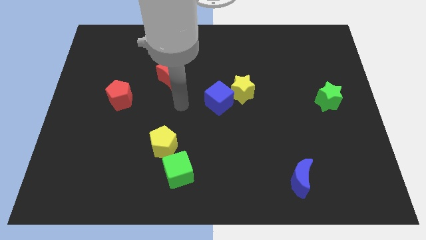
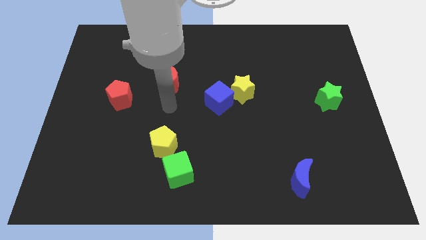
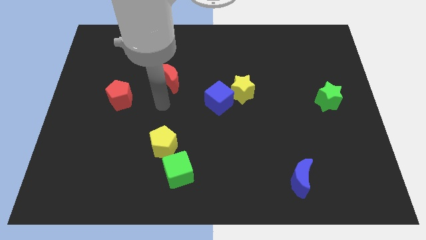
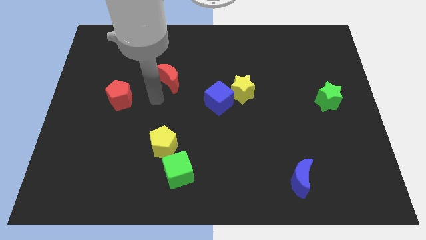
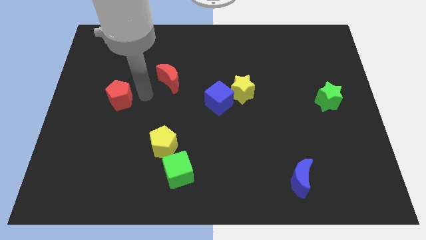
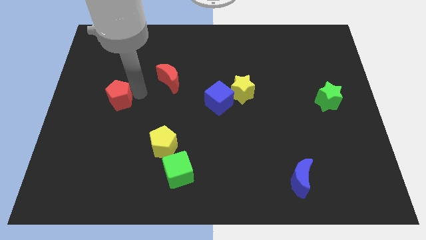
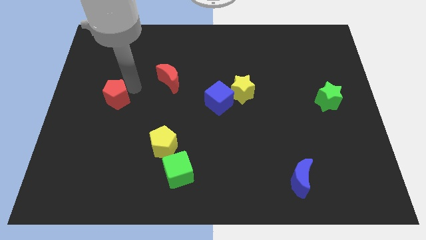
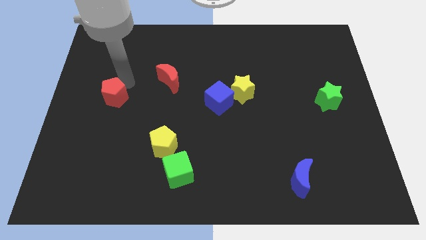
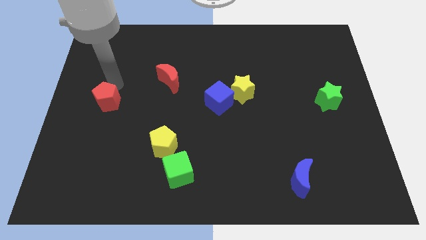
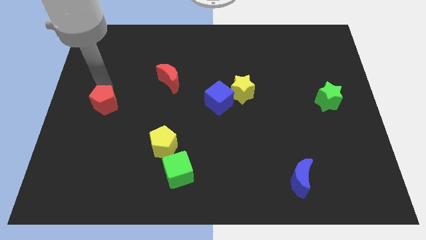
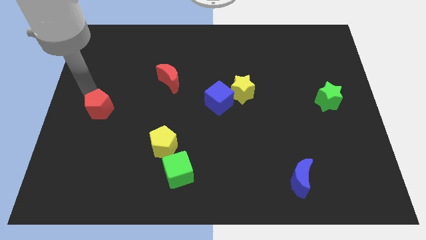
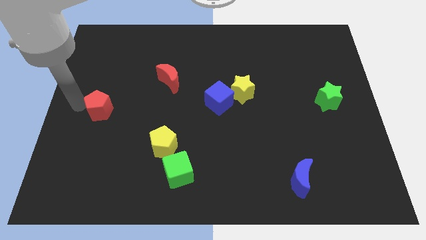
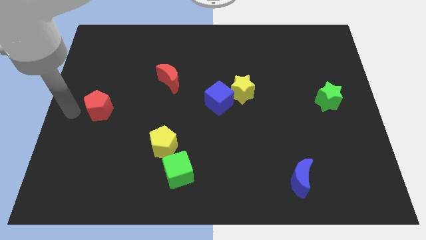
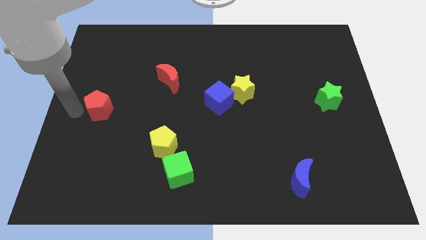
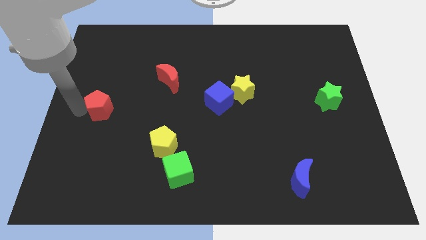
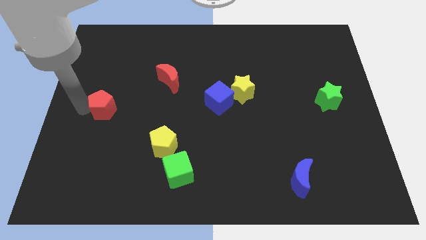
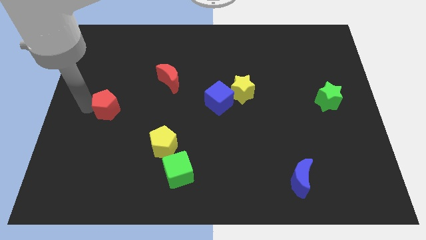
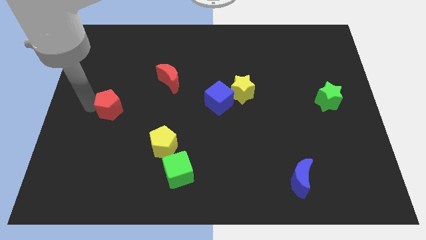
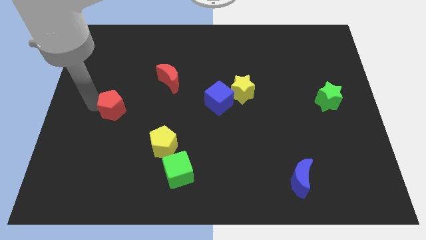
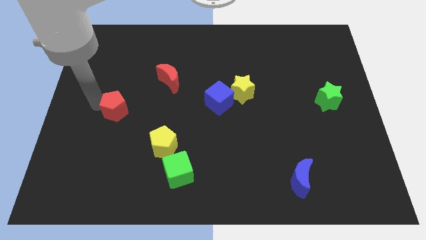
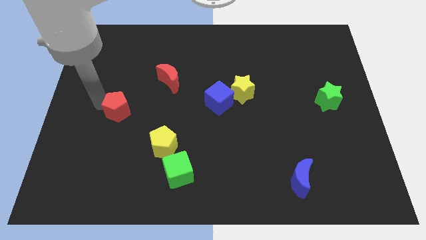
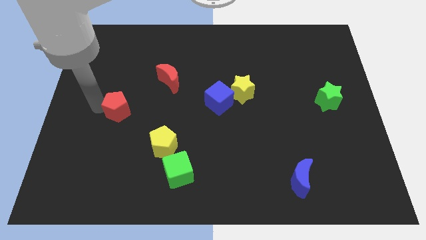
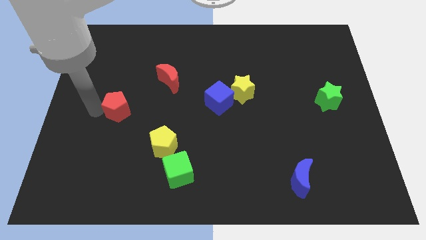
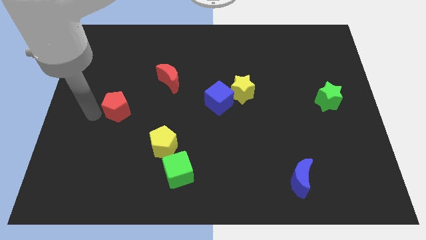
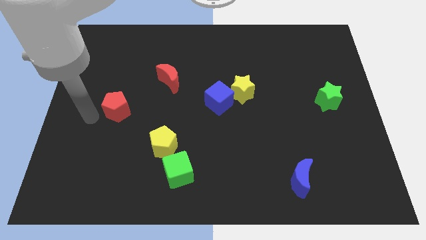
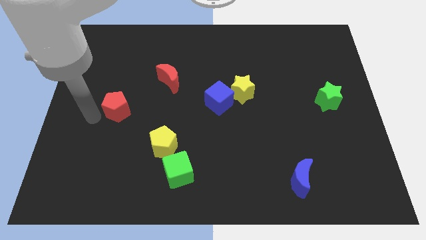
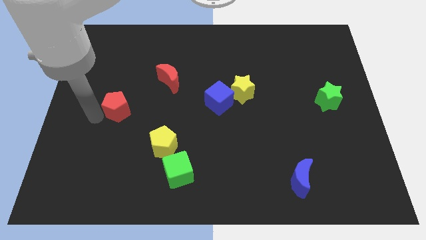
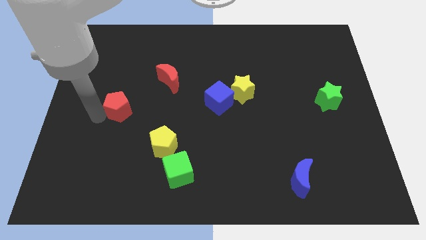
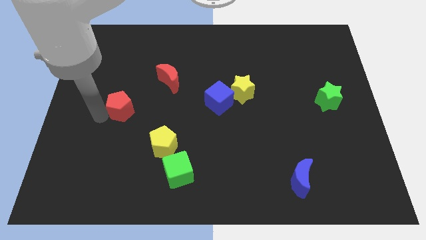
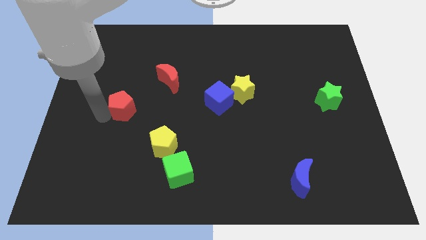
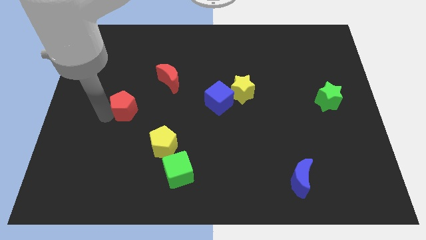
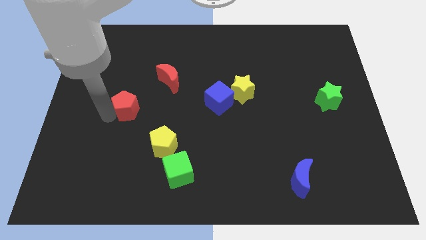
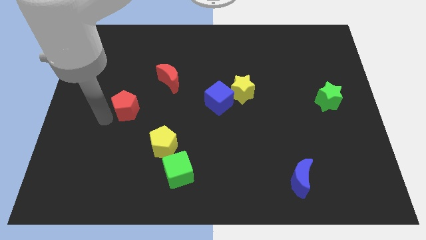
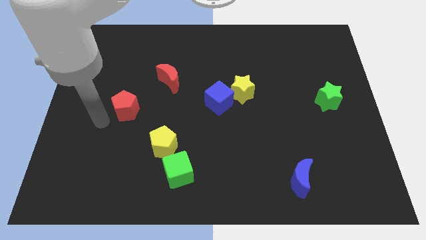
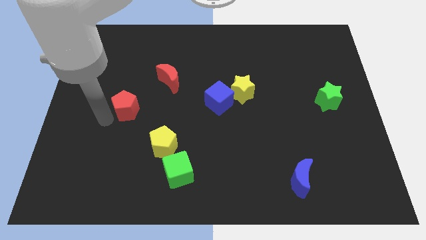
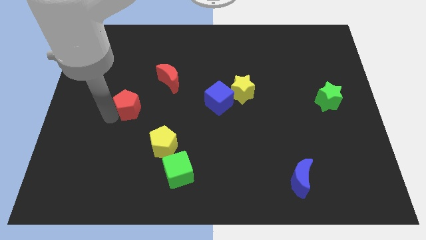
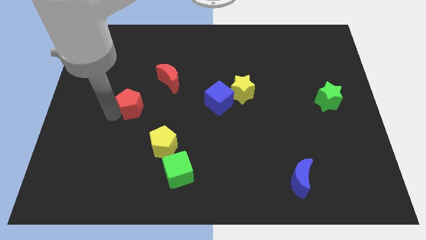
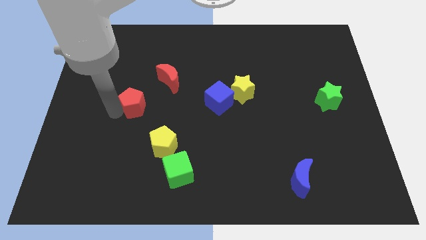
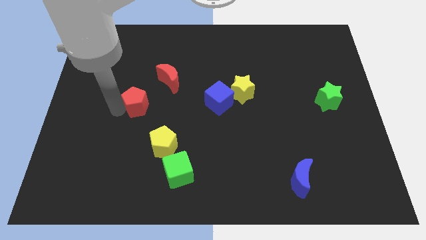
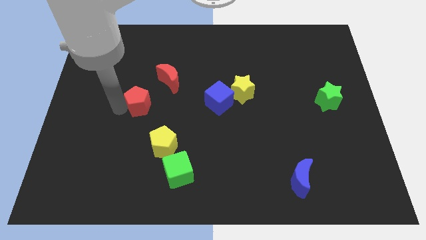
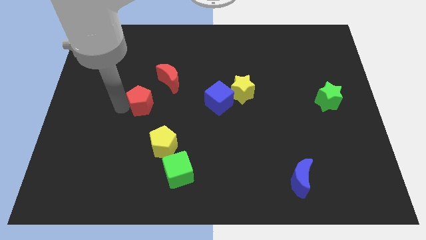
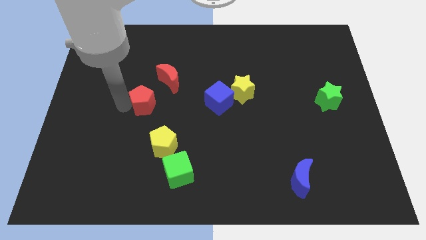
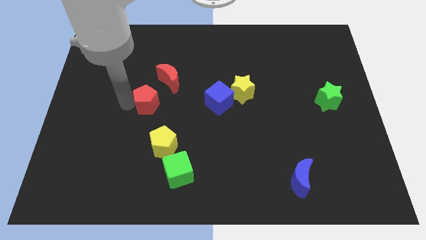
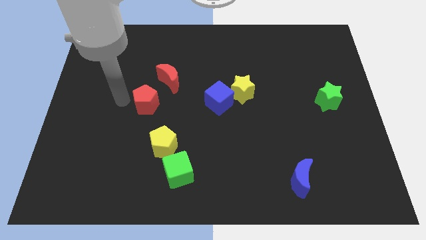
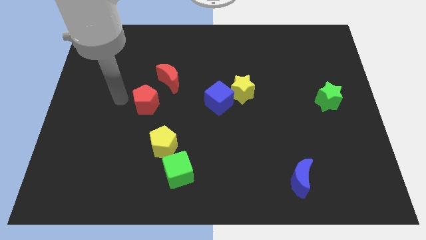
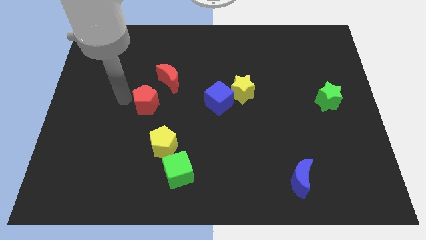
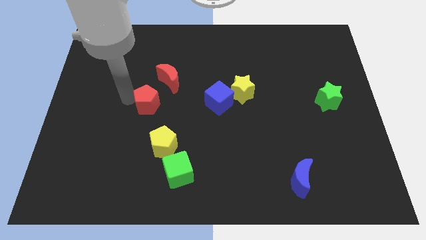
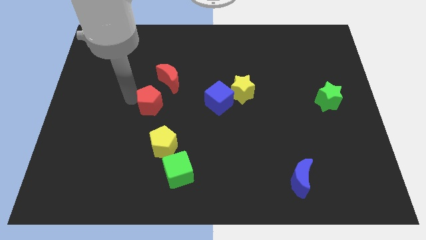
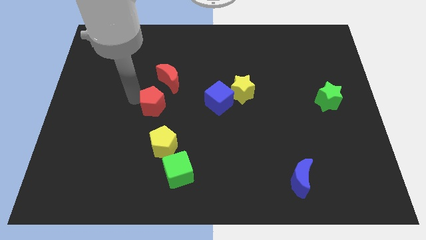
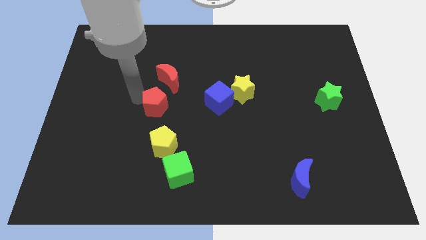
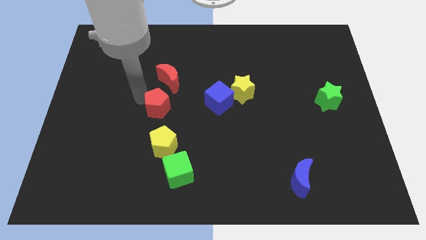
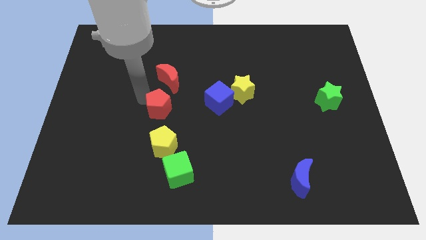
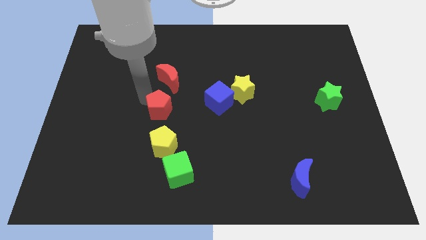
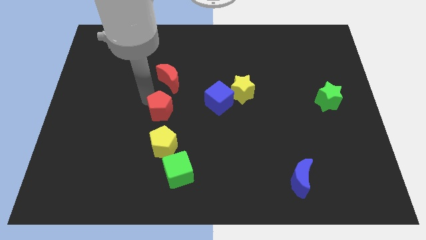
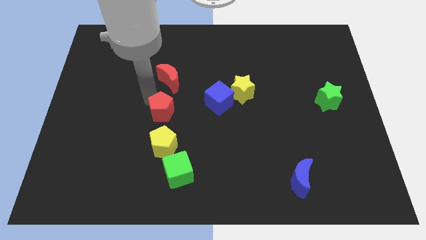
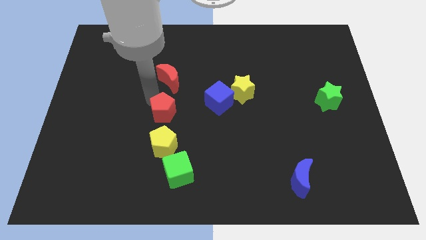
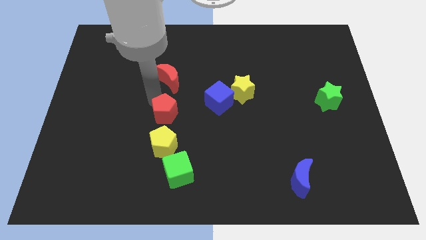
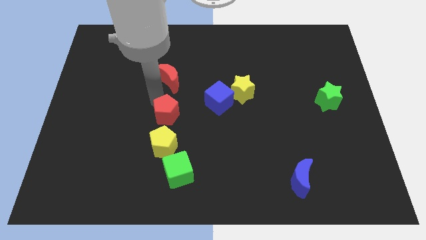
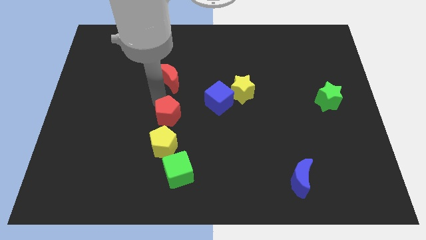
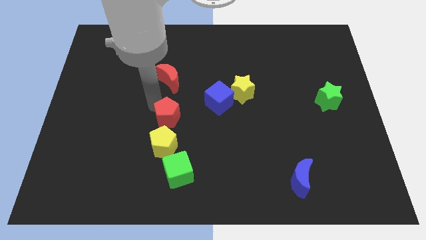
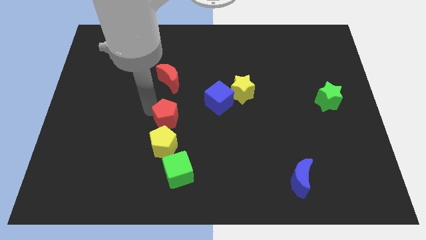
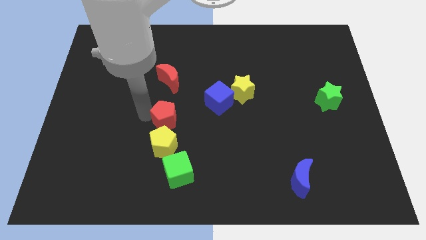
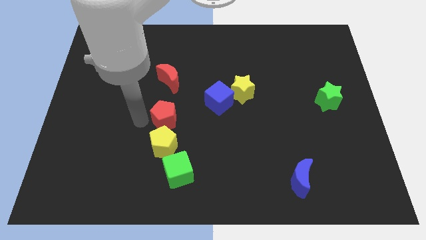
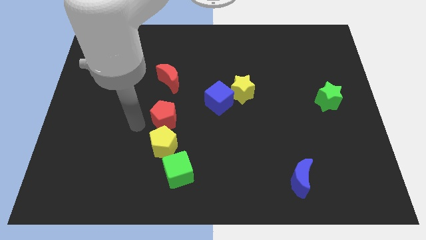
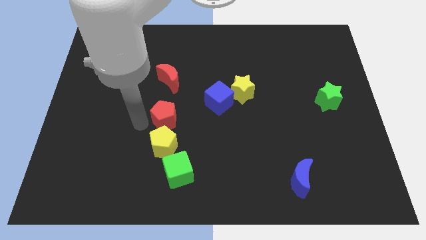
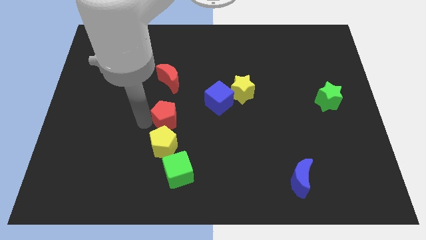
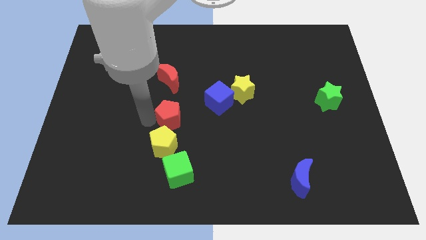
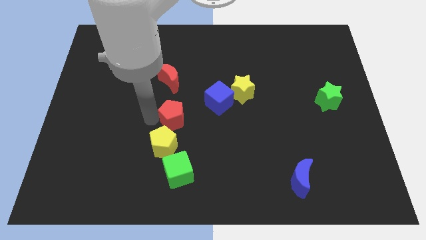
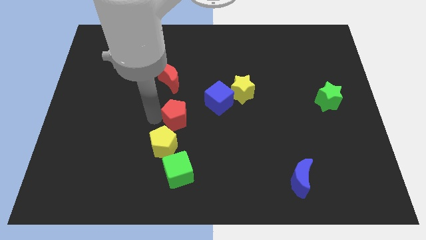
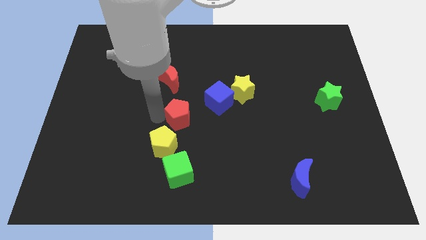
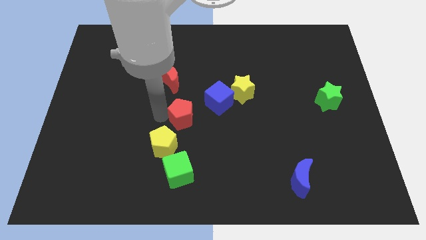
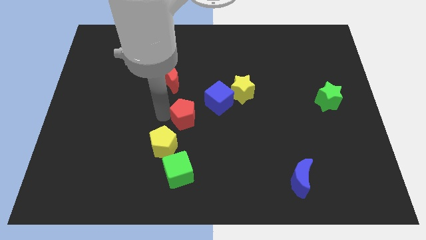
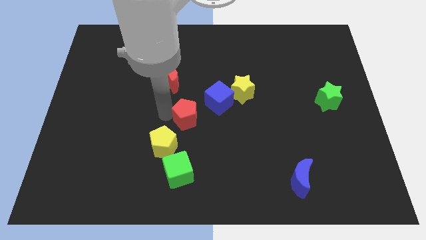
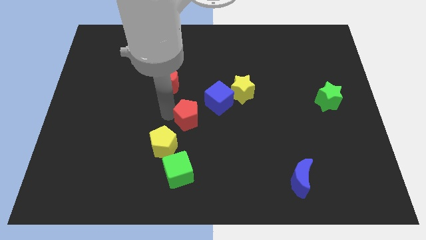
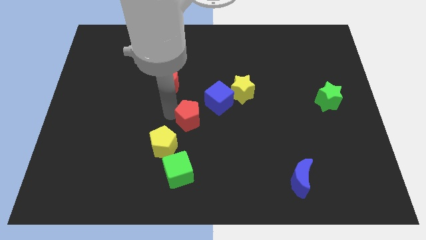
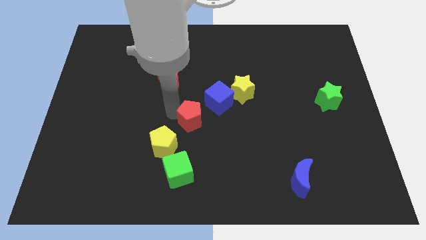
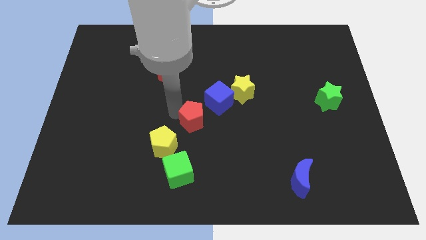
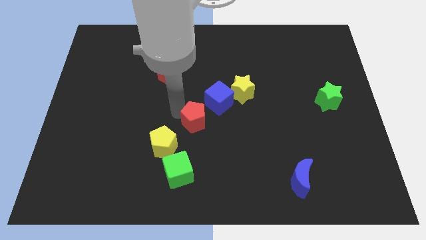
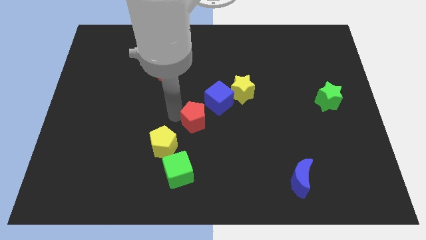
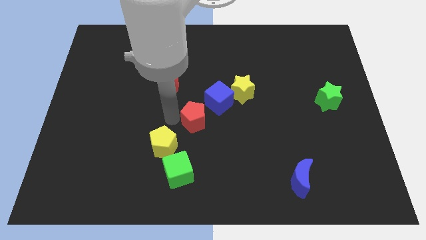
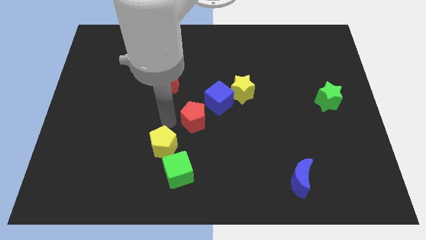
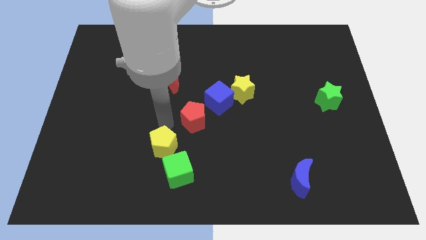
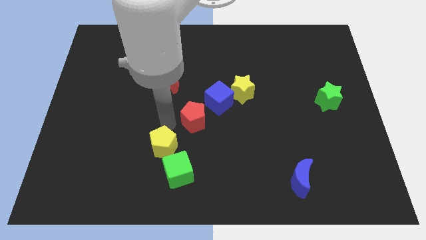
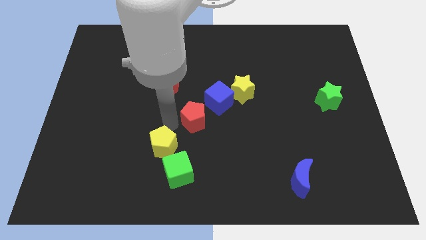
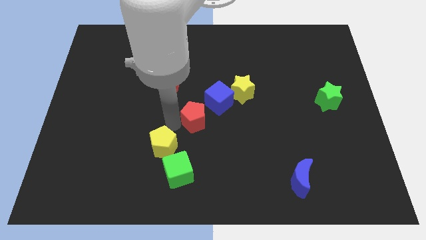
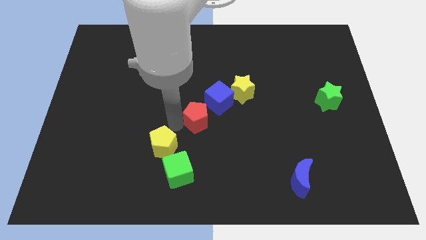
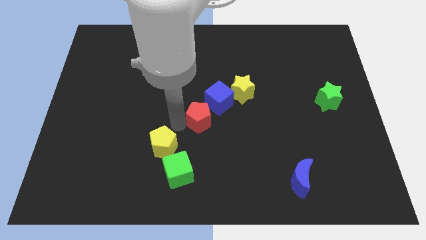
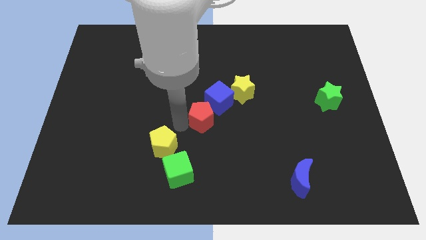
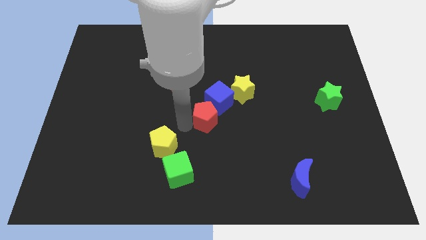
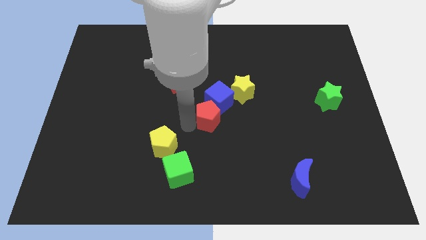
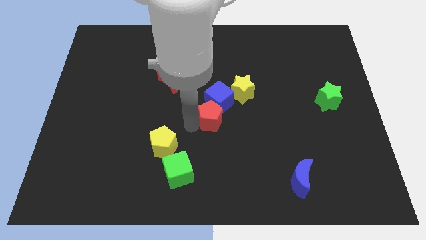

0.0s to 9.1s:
slide the red pentagon to the right
